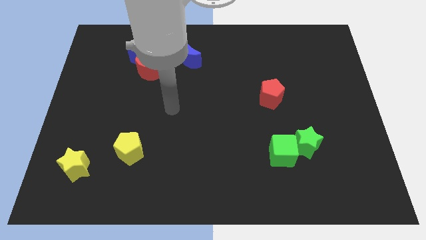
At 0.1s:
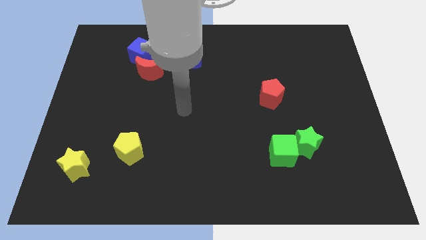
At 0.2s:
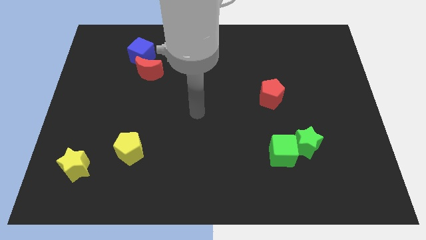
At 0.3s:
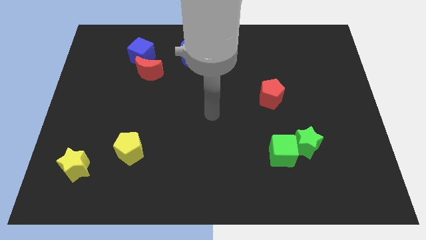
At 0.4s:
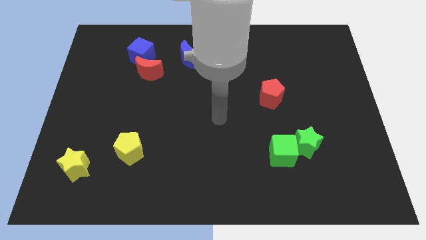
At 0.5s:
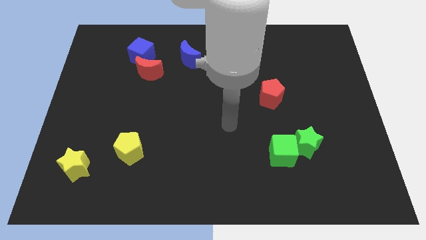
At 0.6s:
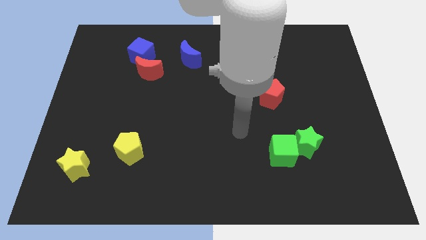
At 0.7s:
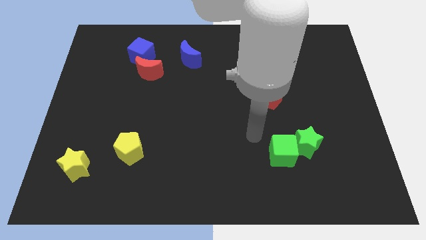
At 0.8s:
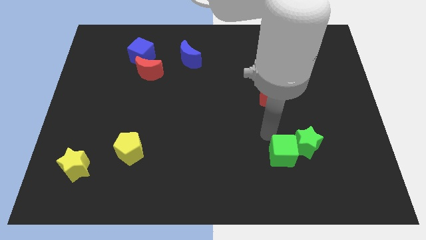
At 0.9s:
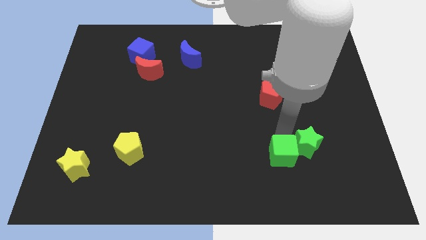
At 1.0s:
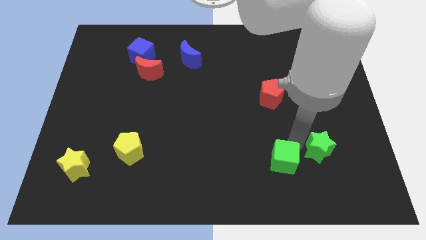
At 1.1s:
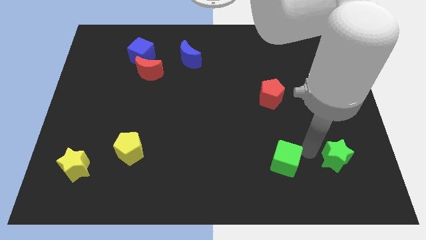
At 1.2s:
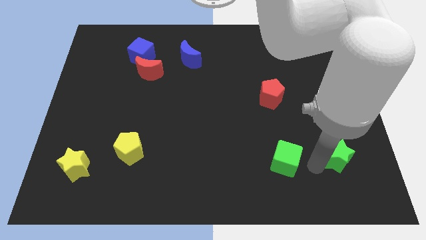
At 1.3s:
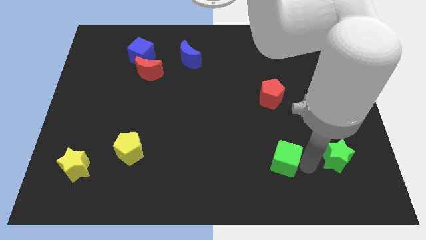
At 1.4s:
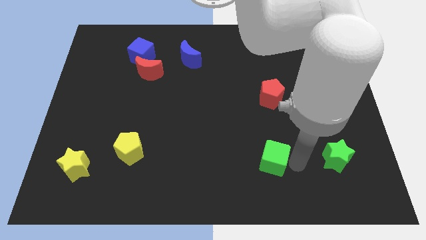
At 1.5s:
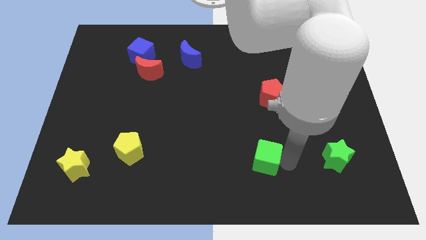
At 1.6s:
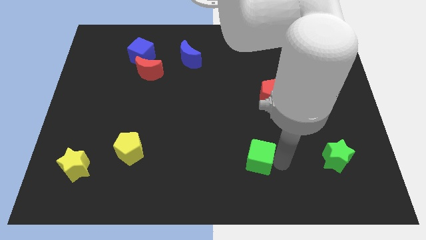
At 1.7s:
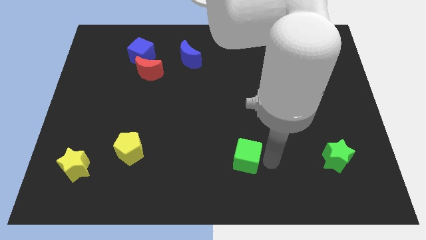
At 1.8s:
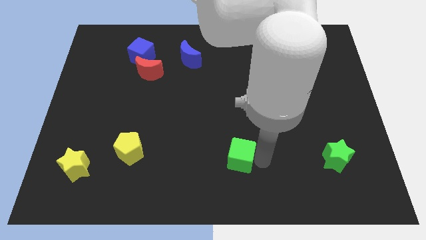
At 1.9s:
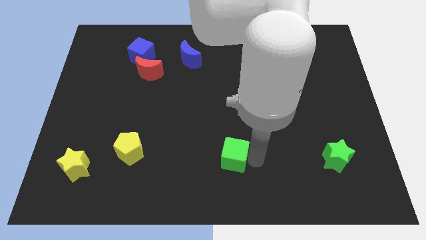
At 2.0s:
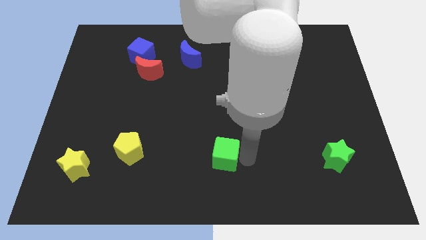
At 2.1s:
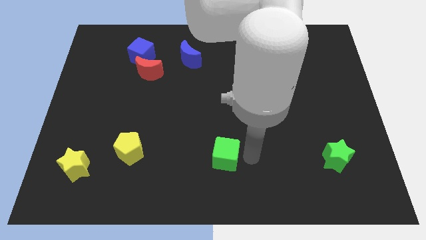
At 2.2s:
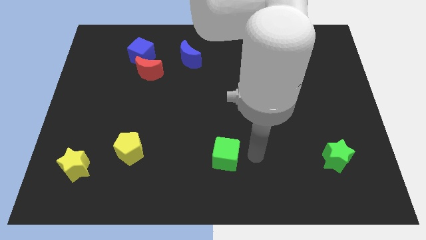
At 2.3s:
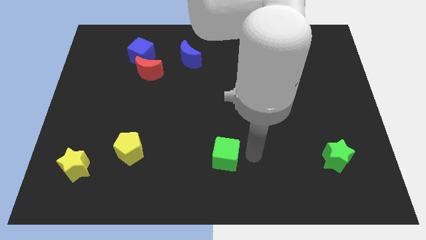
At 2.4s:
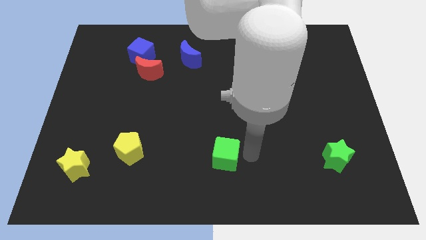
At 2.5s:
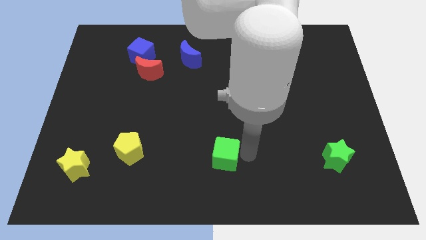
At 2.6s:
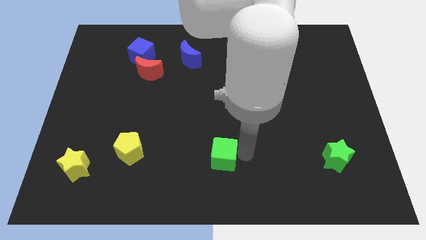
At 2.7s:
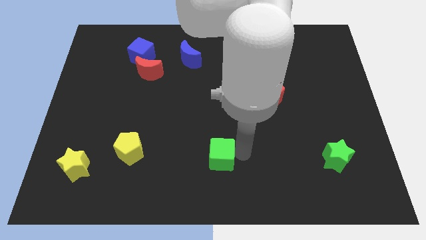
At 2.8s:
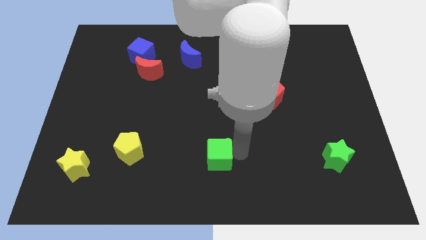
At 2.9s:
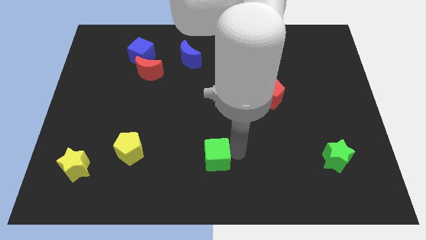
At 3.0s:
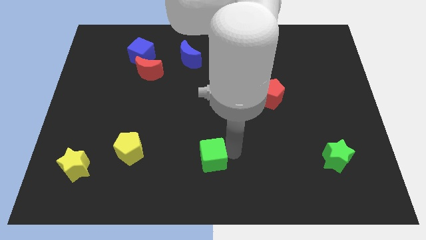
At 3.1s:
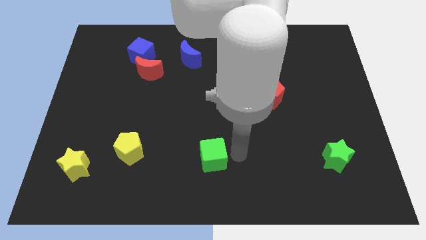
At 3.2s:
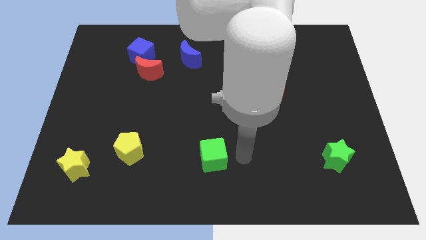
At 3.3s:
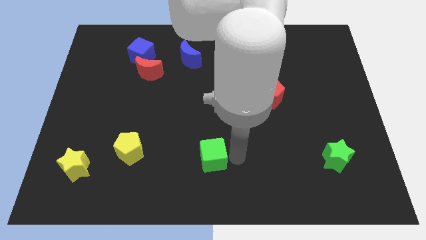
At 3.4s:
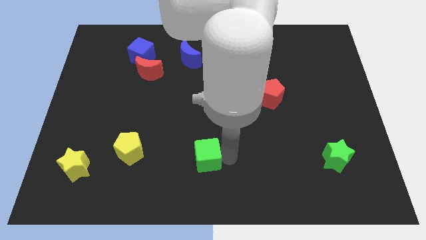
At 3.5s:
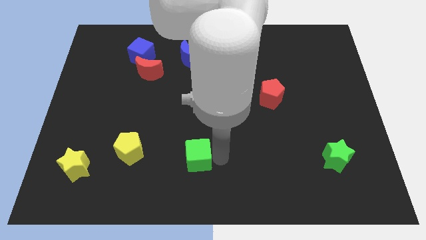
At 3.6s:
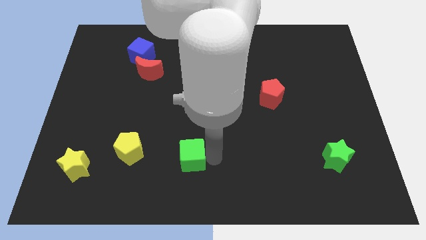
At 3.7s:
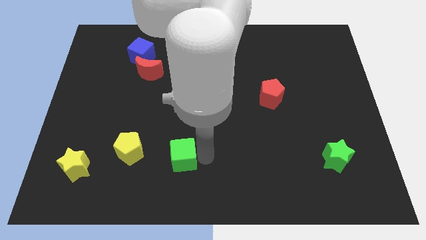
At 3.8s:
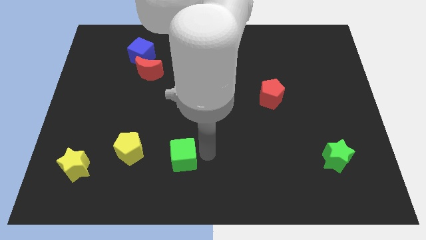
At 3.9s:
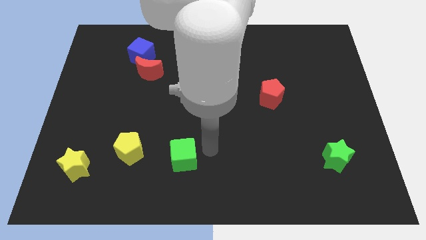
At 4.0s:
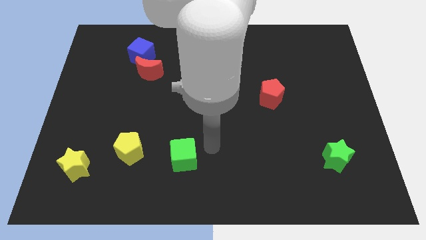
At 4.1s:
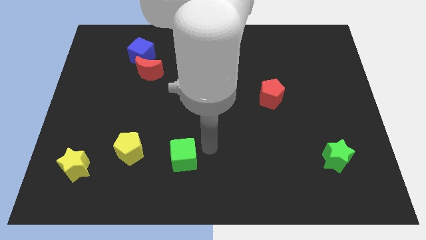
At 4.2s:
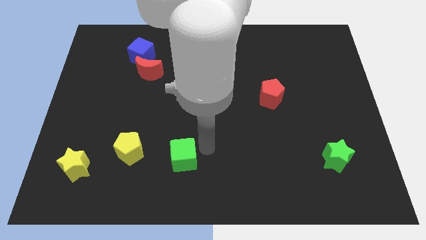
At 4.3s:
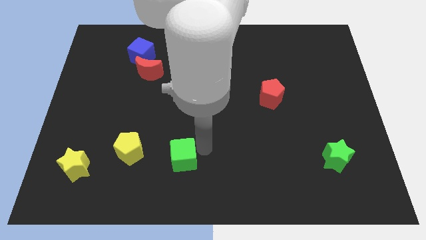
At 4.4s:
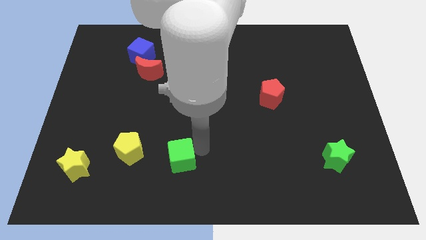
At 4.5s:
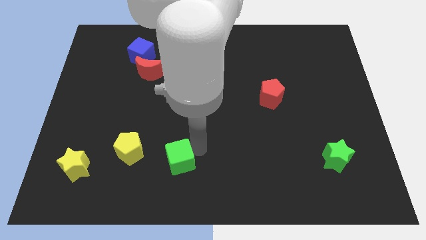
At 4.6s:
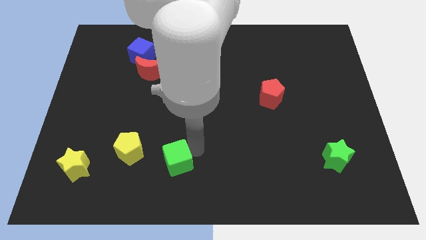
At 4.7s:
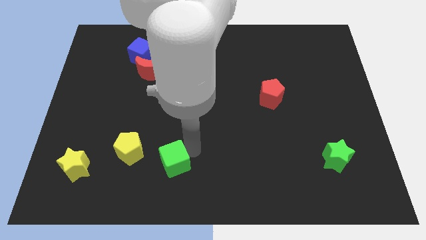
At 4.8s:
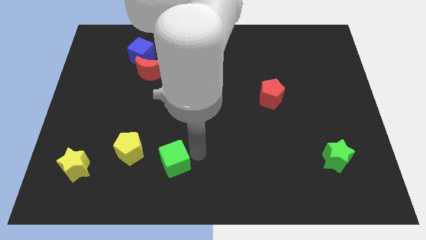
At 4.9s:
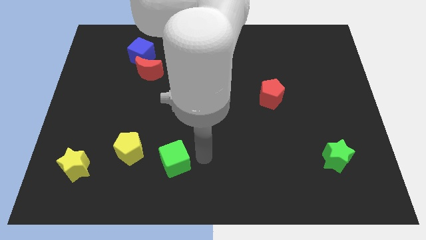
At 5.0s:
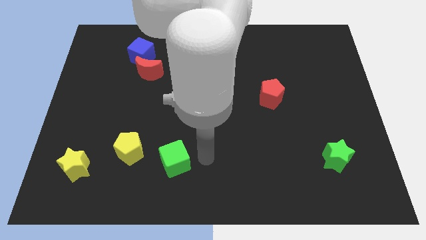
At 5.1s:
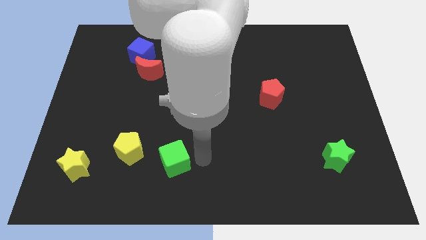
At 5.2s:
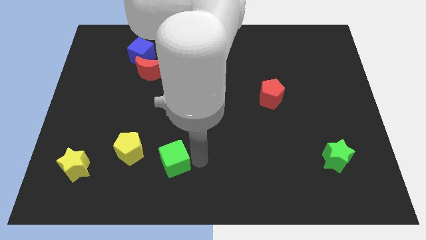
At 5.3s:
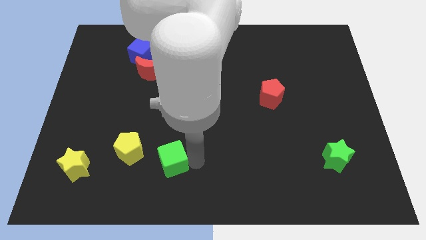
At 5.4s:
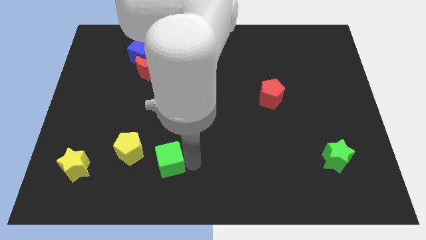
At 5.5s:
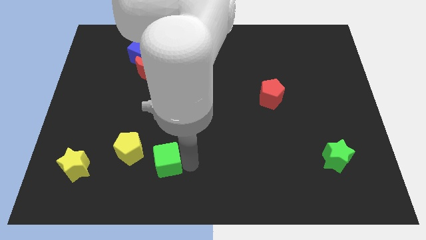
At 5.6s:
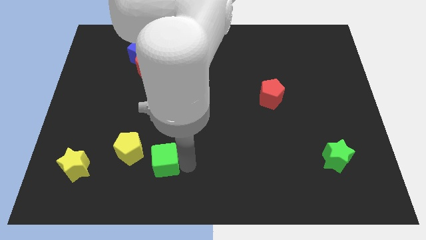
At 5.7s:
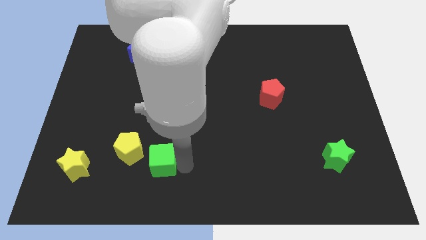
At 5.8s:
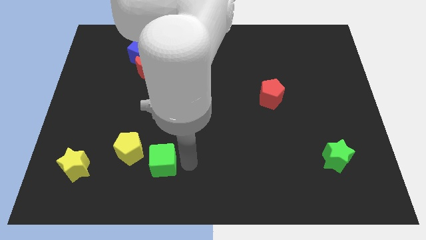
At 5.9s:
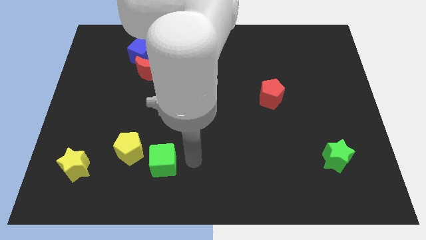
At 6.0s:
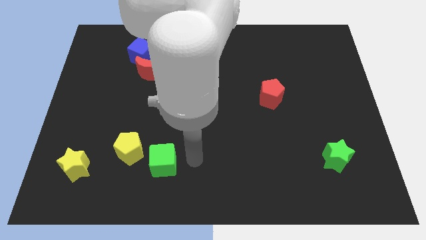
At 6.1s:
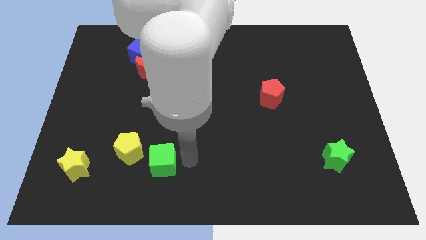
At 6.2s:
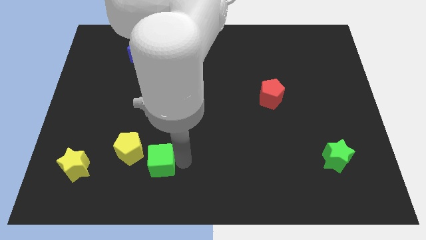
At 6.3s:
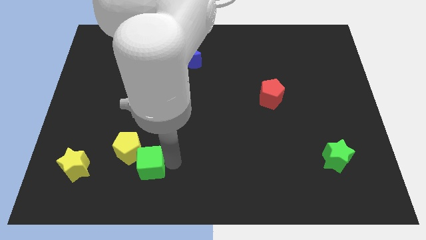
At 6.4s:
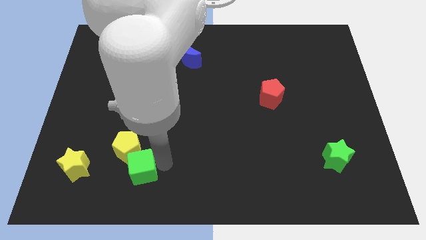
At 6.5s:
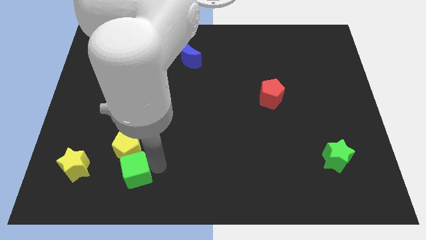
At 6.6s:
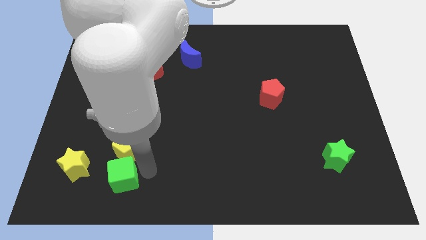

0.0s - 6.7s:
push the green cube diagonally down and to the left of the yellow pentagon

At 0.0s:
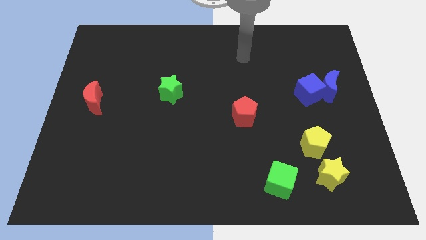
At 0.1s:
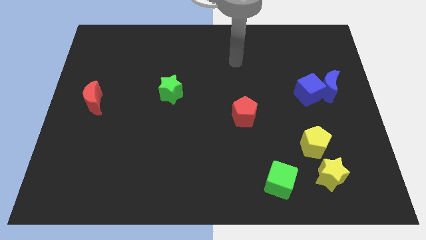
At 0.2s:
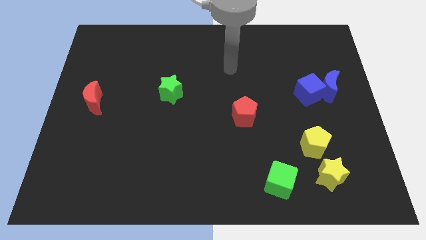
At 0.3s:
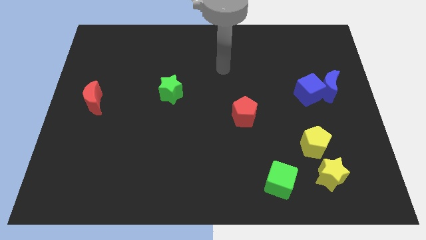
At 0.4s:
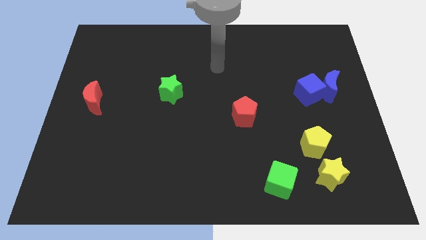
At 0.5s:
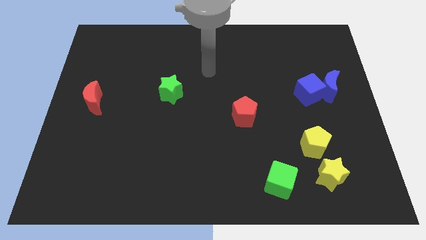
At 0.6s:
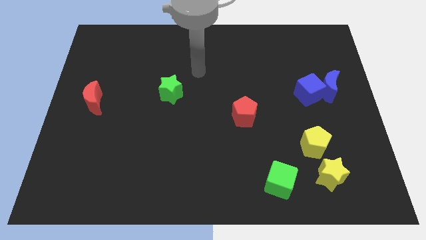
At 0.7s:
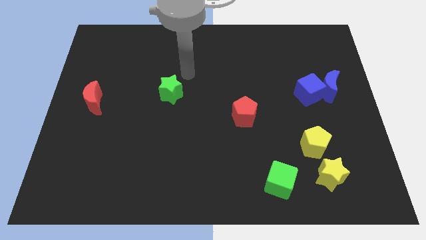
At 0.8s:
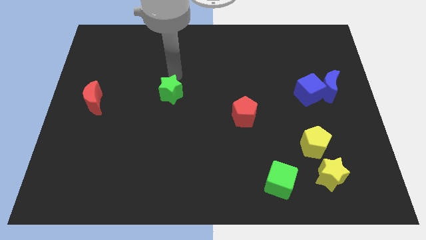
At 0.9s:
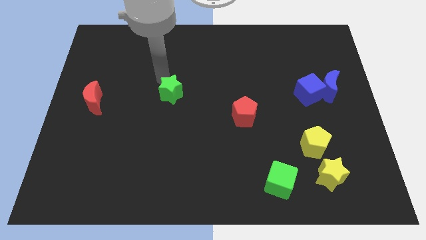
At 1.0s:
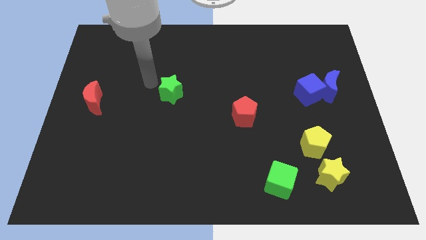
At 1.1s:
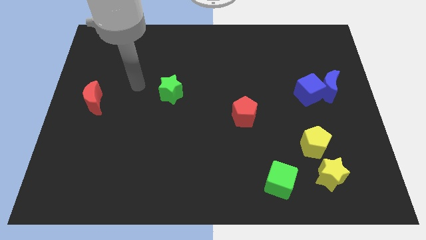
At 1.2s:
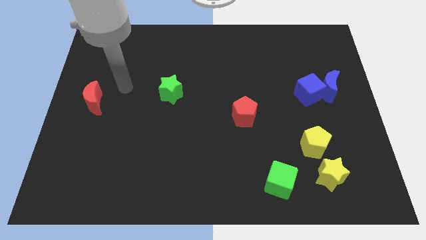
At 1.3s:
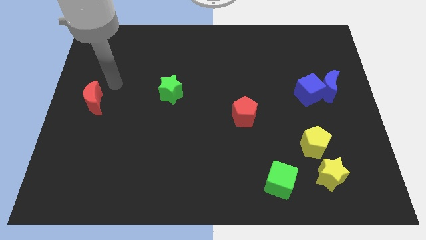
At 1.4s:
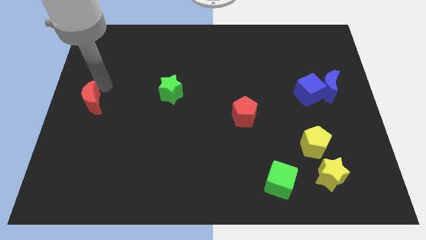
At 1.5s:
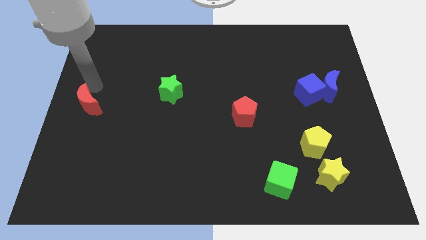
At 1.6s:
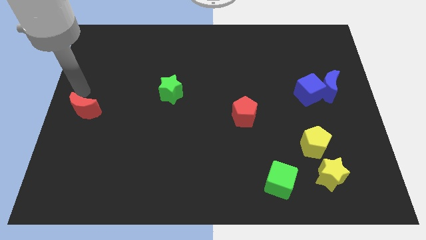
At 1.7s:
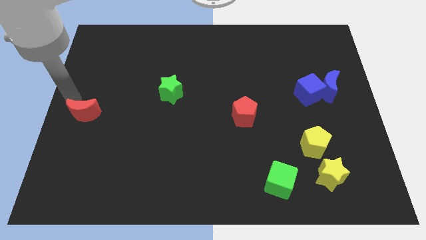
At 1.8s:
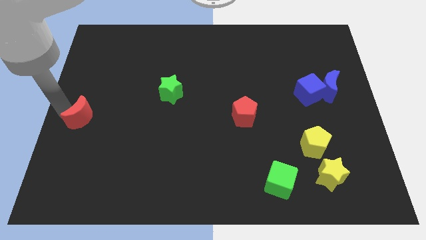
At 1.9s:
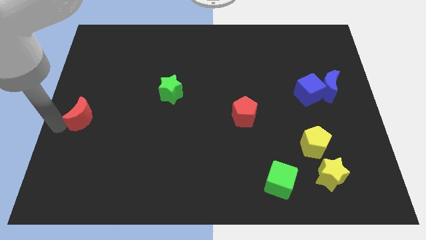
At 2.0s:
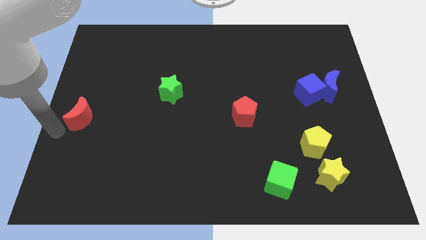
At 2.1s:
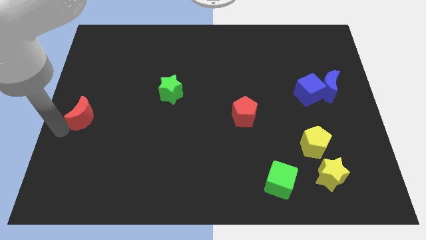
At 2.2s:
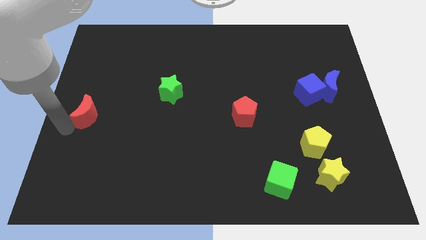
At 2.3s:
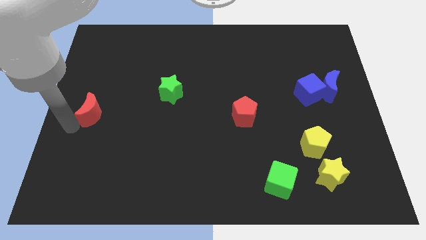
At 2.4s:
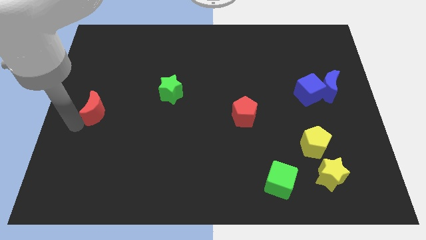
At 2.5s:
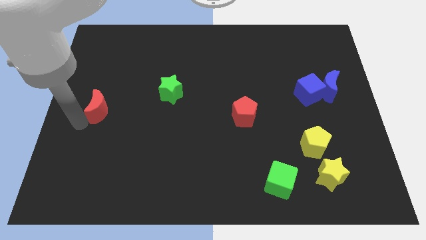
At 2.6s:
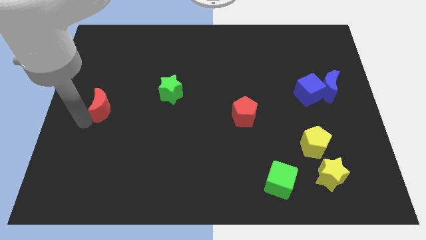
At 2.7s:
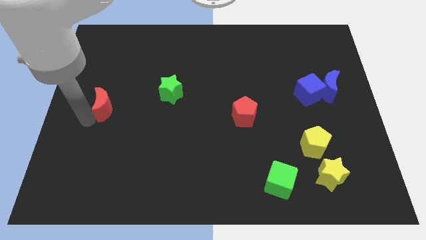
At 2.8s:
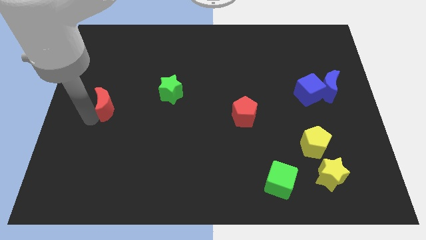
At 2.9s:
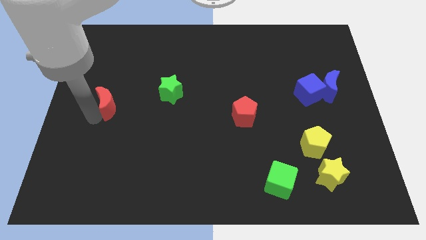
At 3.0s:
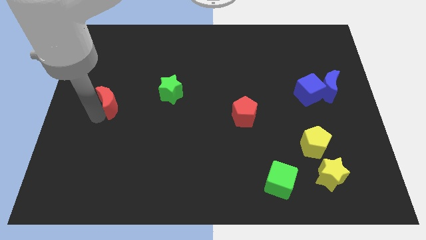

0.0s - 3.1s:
put the red moon to the left side of the green star
